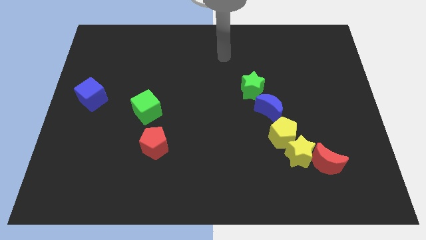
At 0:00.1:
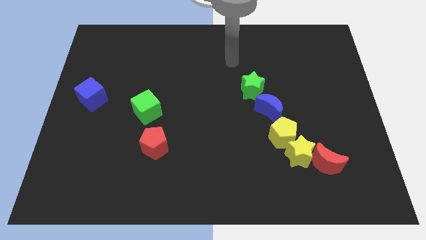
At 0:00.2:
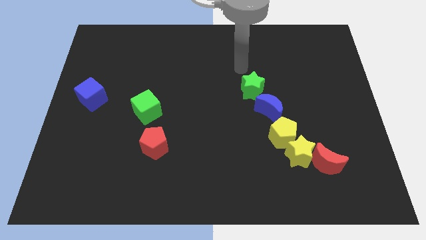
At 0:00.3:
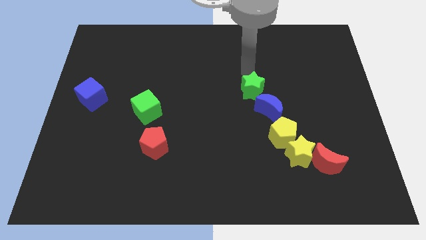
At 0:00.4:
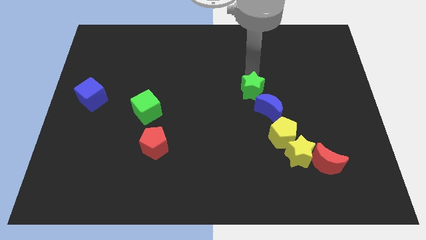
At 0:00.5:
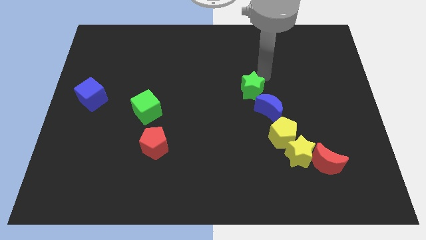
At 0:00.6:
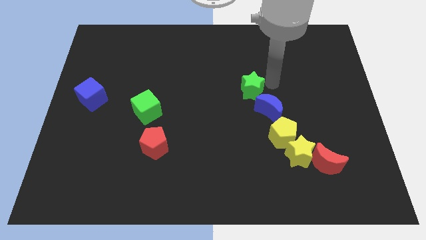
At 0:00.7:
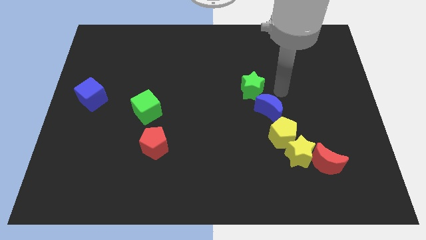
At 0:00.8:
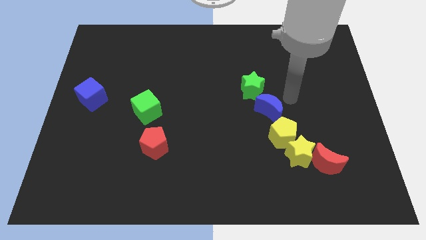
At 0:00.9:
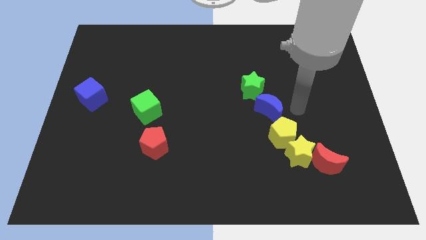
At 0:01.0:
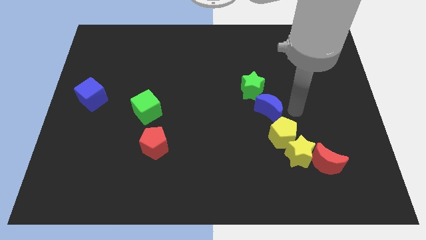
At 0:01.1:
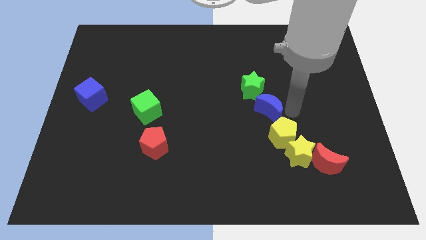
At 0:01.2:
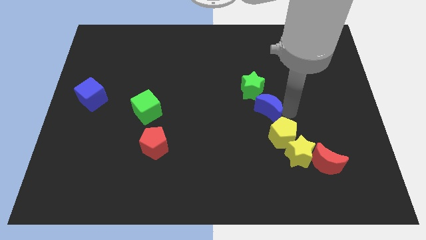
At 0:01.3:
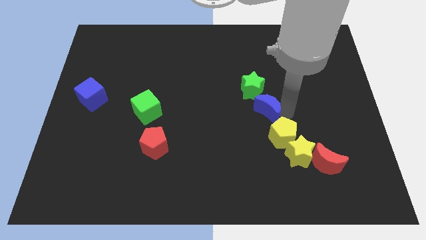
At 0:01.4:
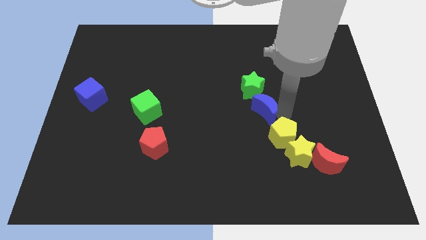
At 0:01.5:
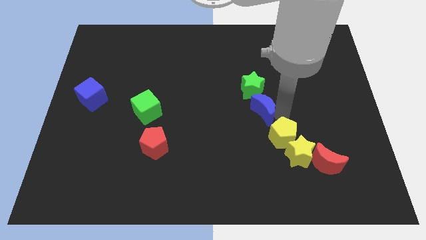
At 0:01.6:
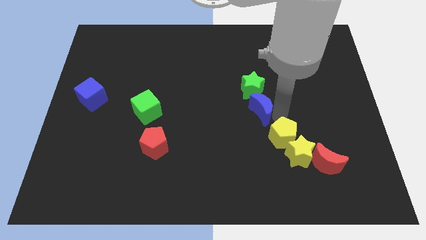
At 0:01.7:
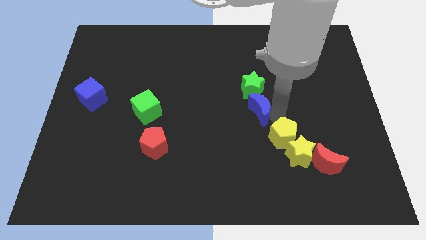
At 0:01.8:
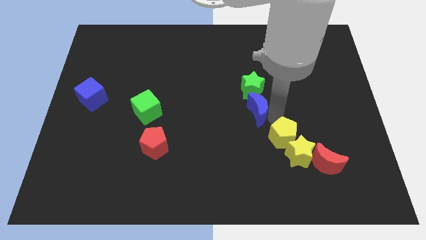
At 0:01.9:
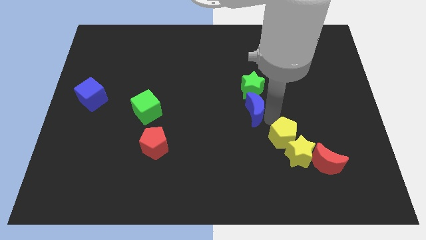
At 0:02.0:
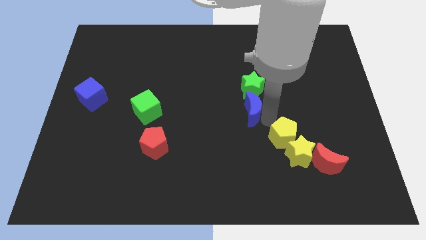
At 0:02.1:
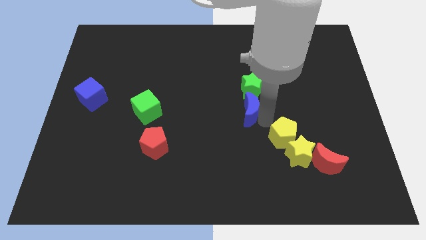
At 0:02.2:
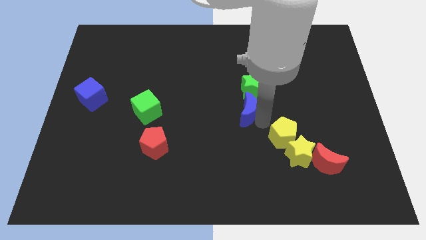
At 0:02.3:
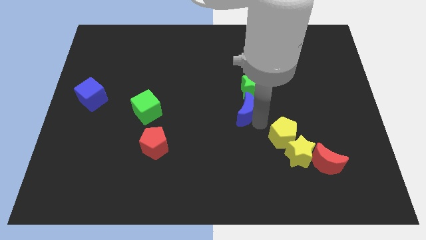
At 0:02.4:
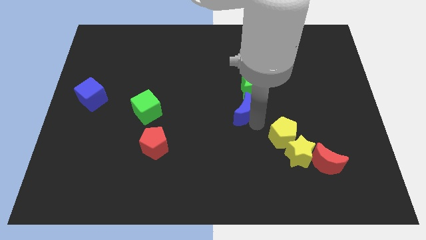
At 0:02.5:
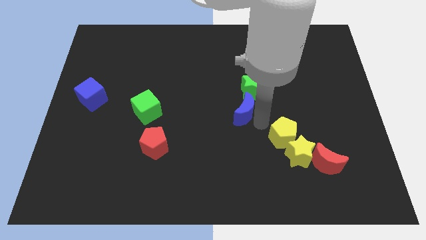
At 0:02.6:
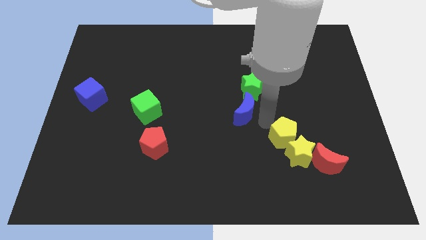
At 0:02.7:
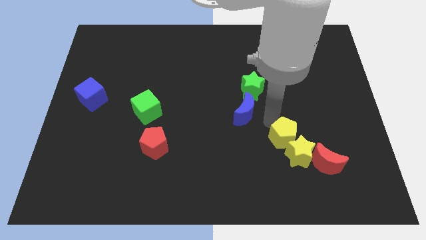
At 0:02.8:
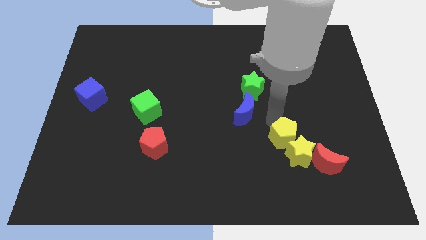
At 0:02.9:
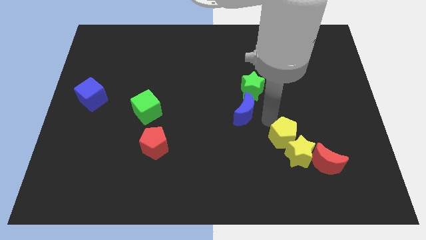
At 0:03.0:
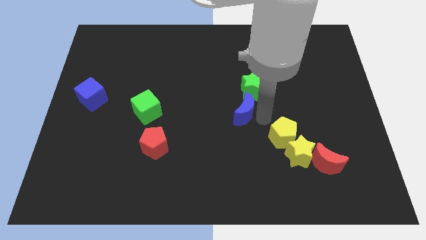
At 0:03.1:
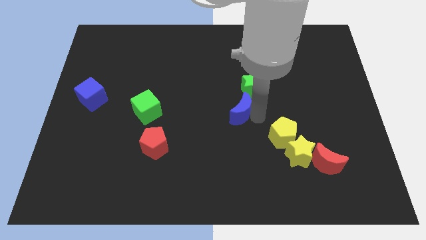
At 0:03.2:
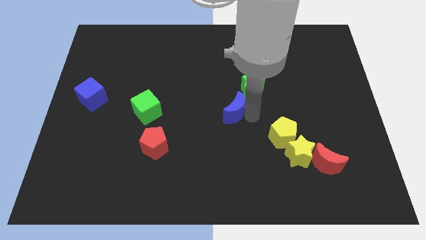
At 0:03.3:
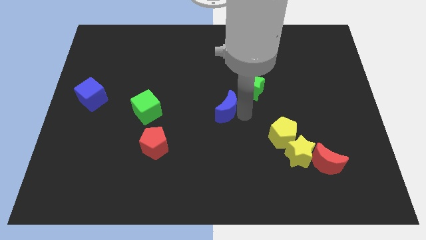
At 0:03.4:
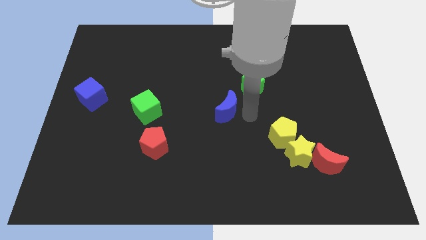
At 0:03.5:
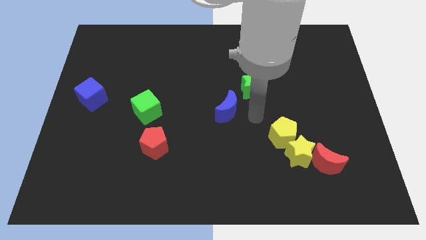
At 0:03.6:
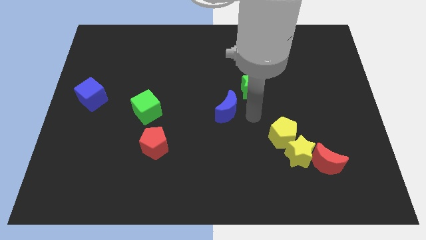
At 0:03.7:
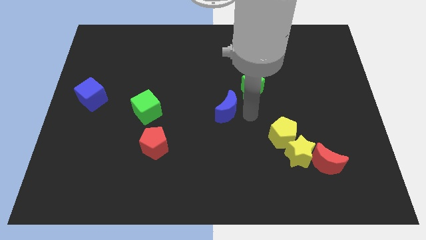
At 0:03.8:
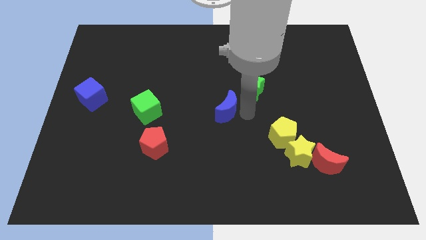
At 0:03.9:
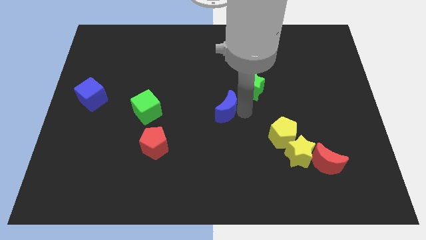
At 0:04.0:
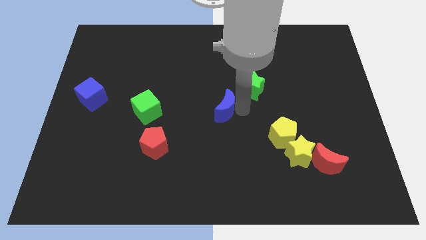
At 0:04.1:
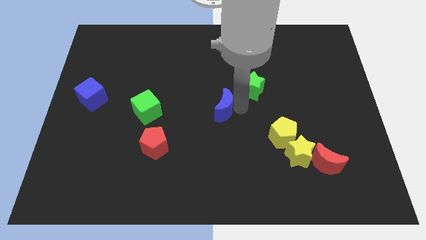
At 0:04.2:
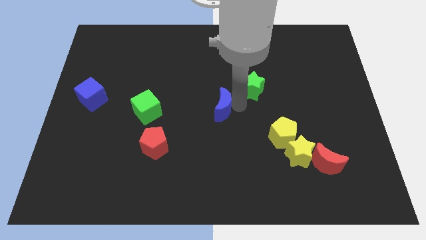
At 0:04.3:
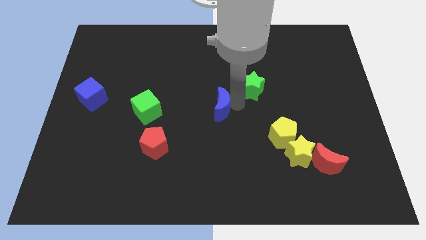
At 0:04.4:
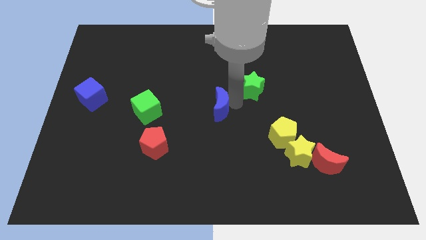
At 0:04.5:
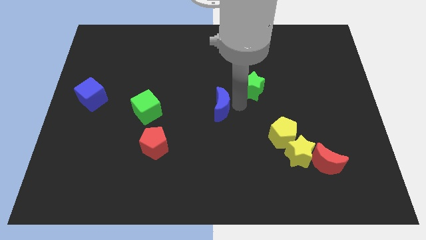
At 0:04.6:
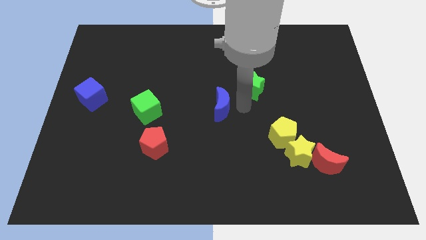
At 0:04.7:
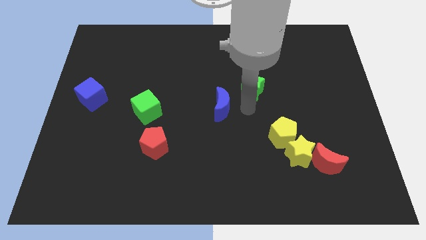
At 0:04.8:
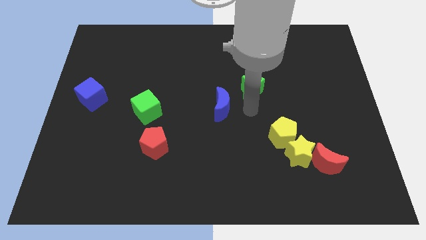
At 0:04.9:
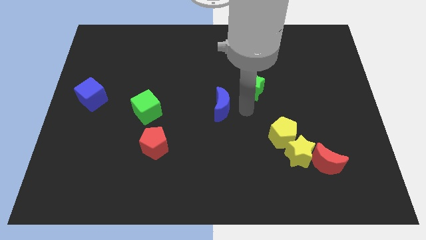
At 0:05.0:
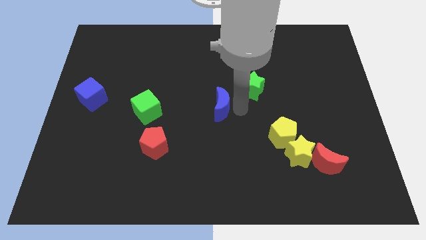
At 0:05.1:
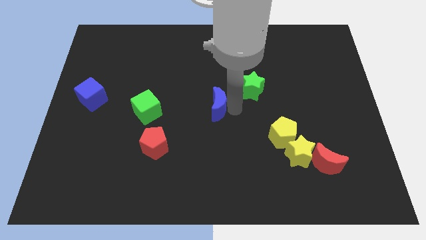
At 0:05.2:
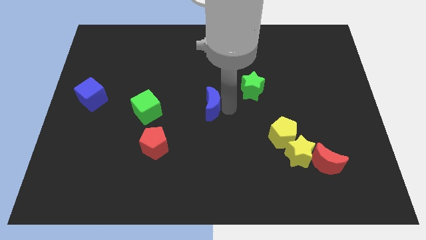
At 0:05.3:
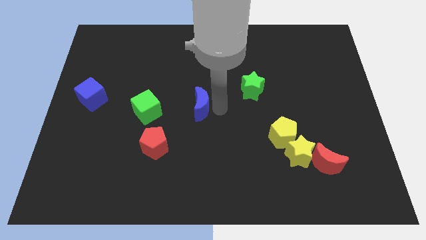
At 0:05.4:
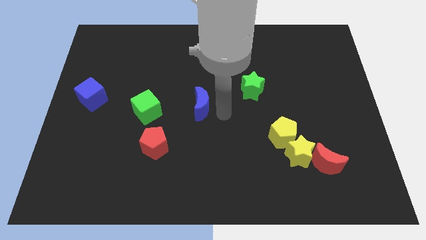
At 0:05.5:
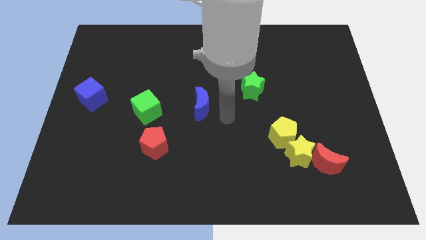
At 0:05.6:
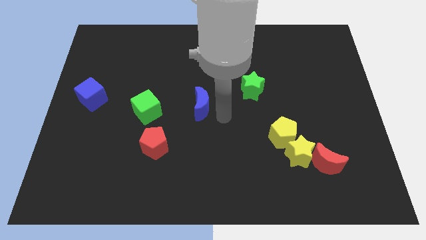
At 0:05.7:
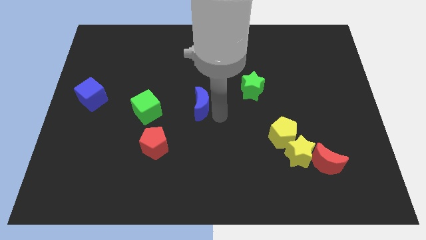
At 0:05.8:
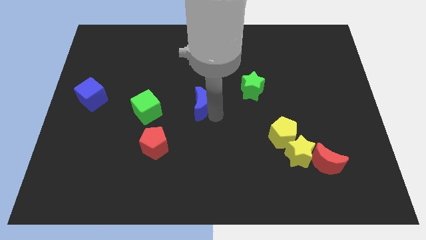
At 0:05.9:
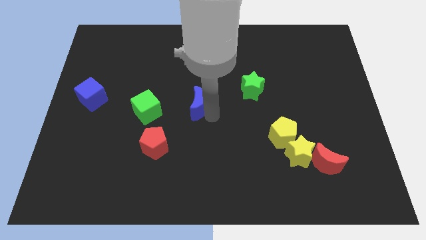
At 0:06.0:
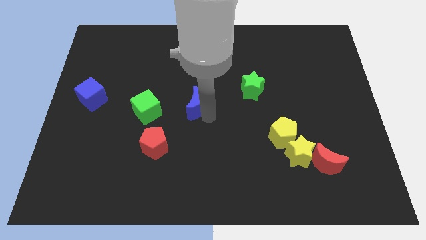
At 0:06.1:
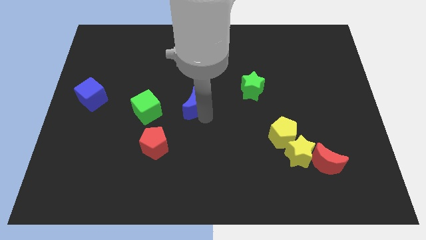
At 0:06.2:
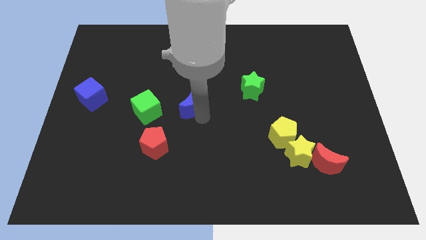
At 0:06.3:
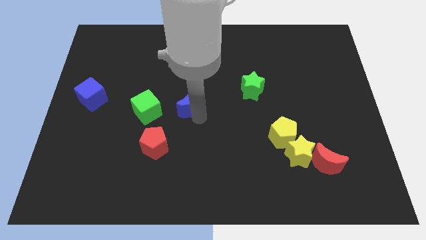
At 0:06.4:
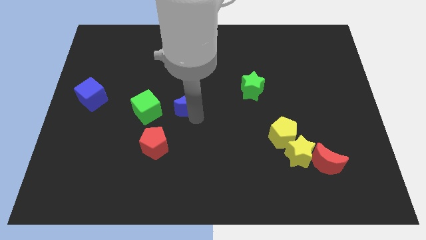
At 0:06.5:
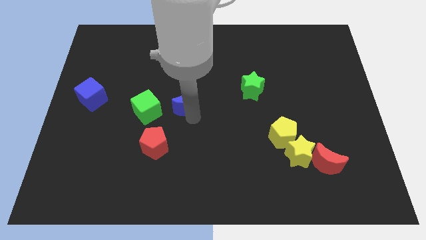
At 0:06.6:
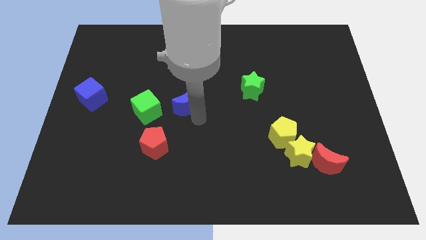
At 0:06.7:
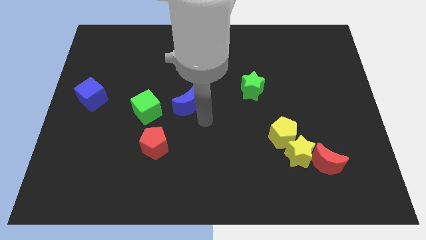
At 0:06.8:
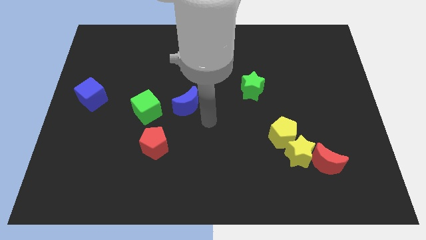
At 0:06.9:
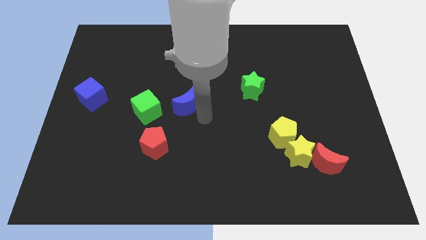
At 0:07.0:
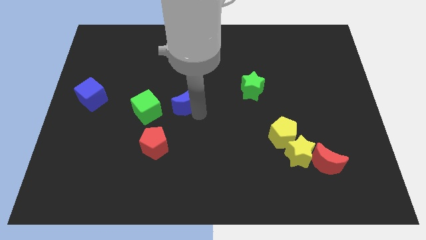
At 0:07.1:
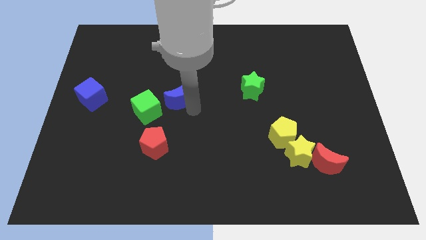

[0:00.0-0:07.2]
move the blue moon diagonally up and to the right of the green cube
